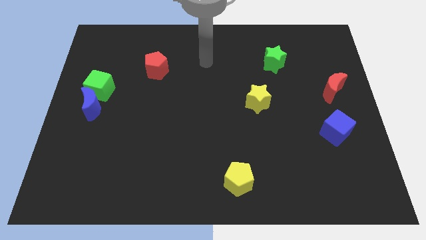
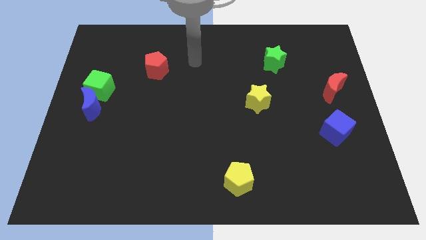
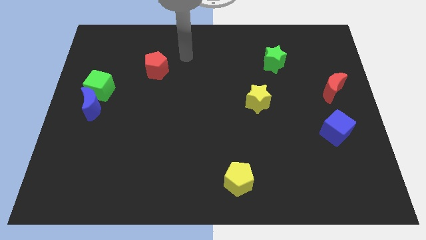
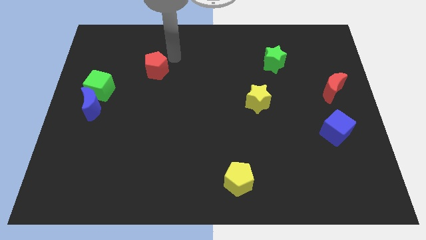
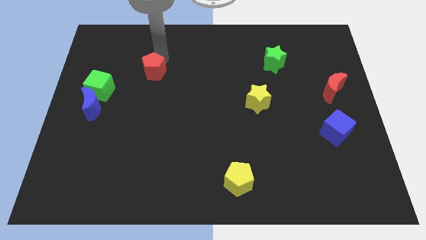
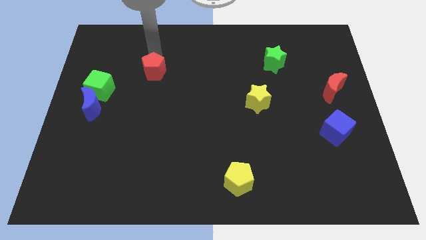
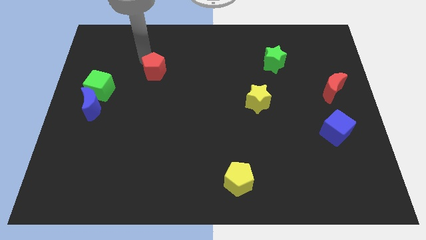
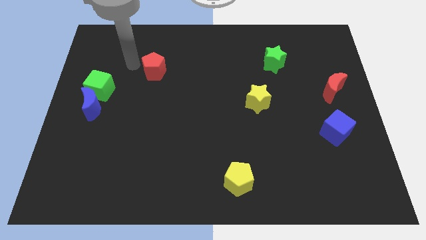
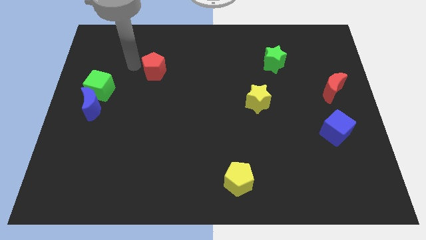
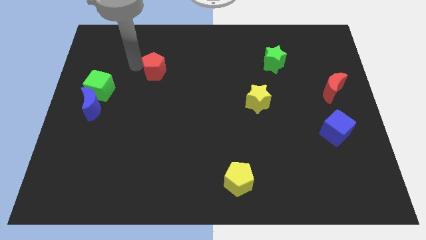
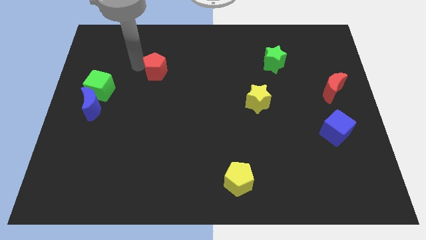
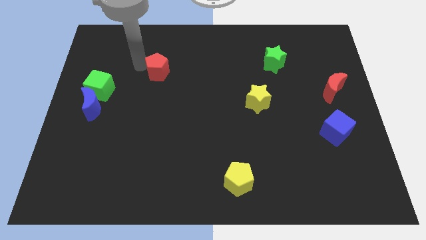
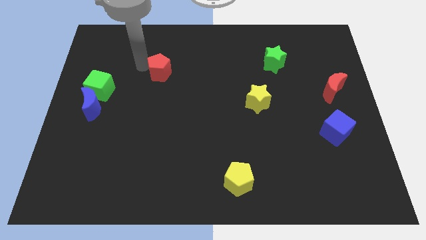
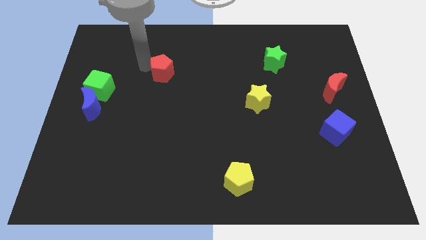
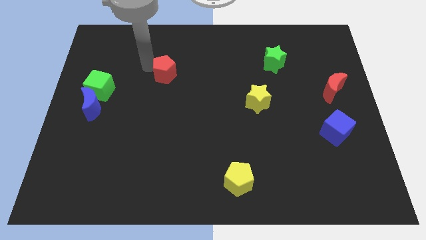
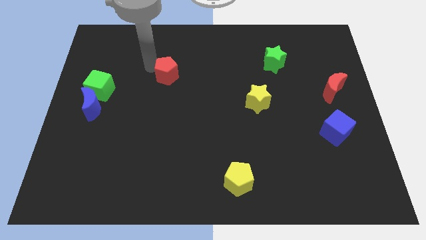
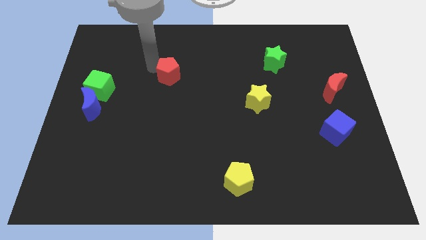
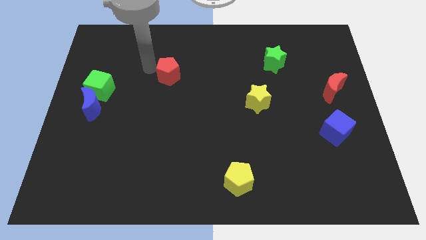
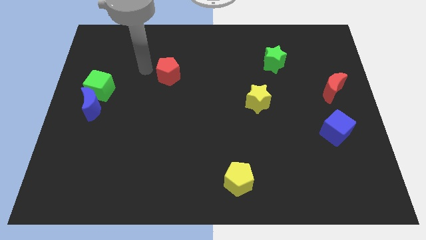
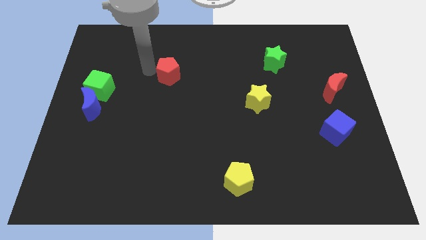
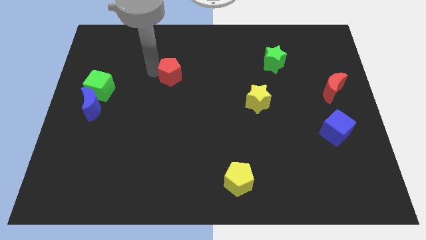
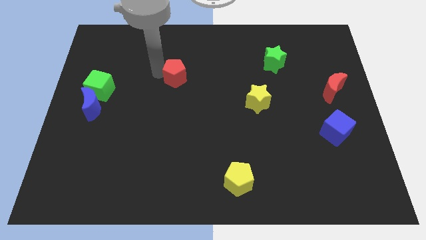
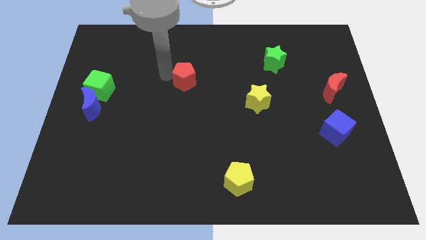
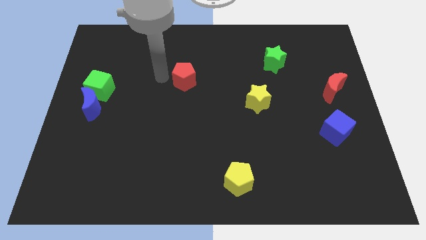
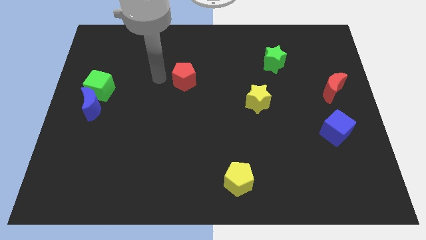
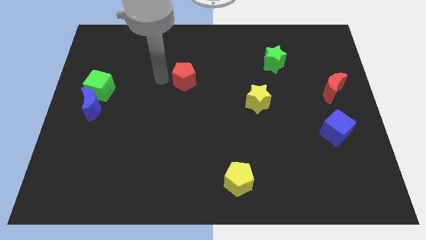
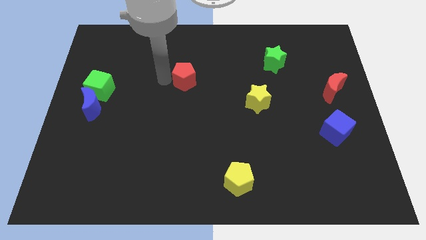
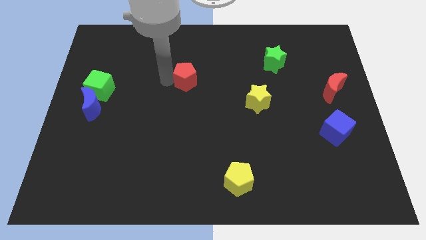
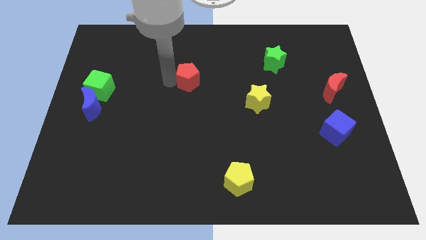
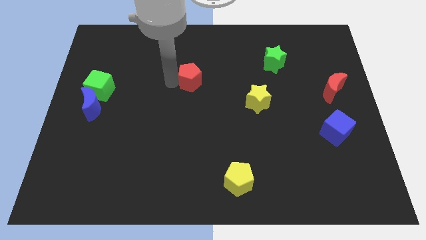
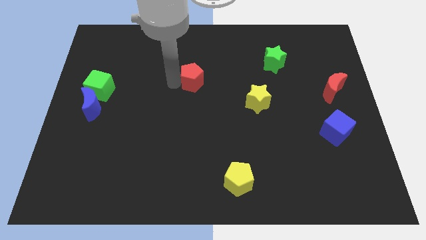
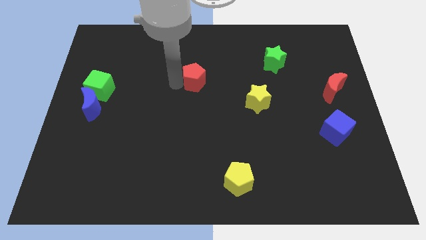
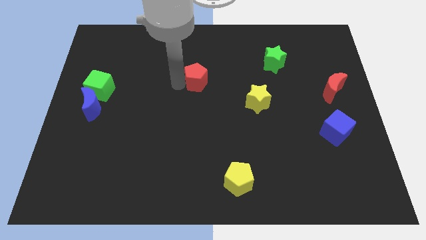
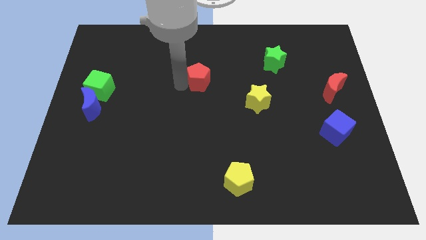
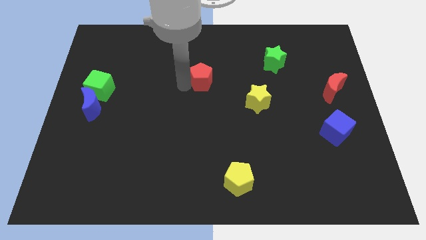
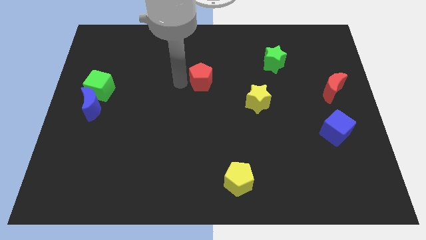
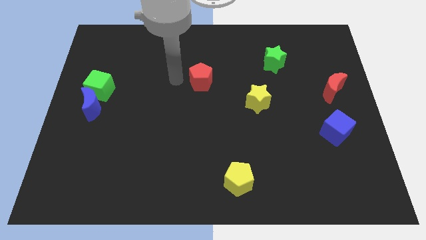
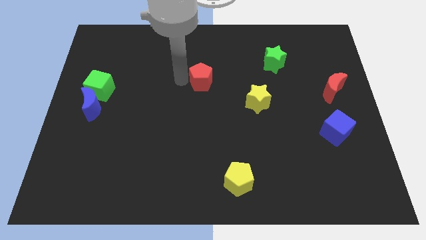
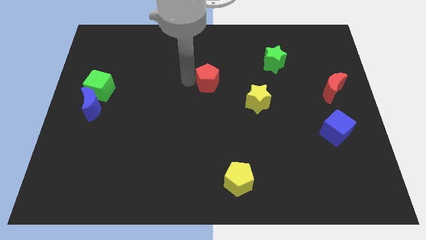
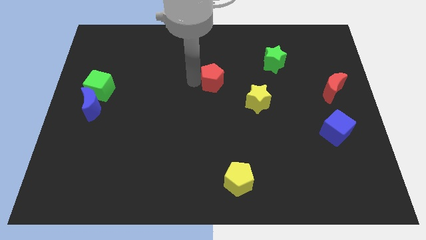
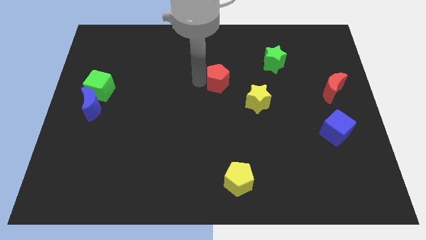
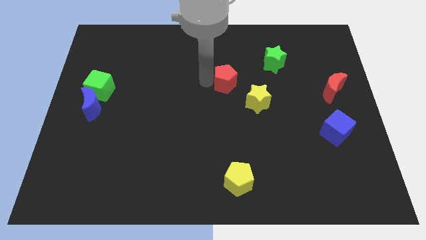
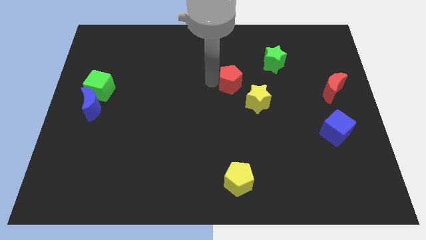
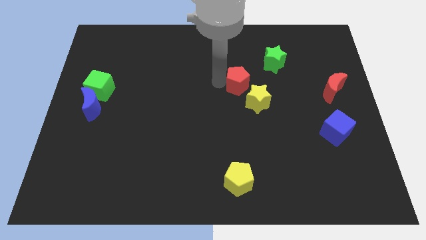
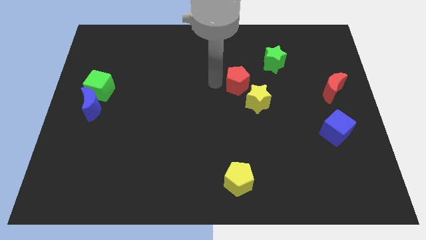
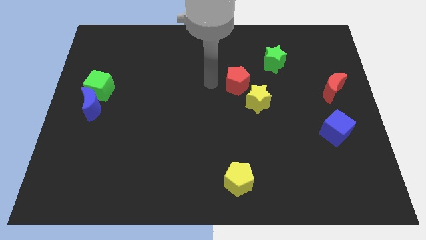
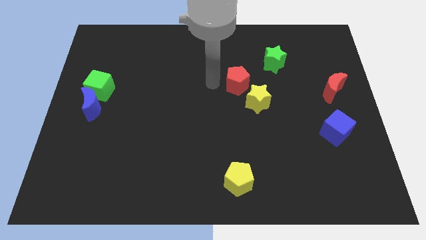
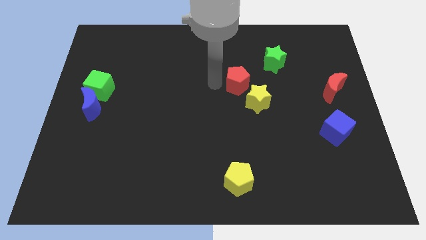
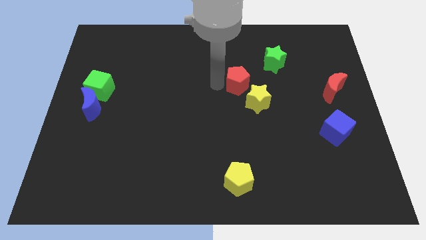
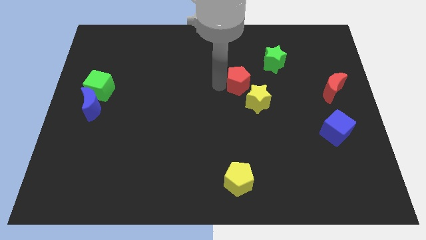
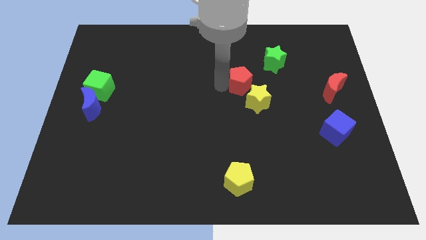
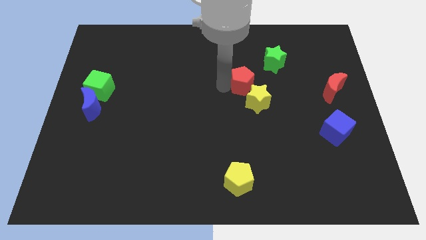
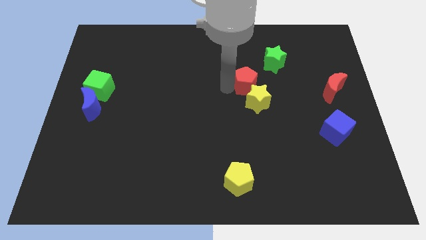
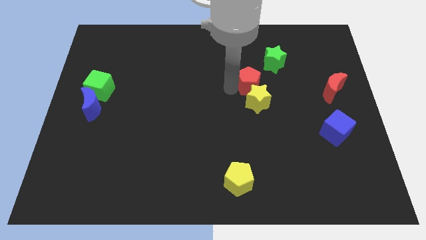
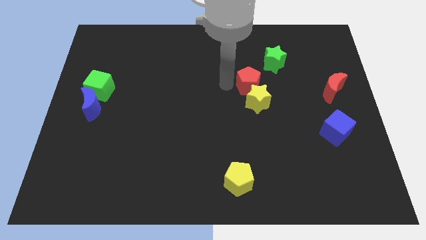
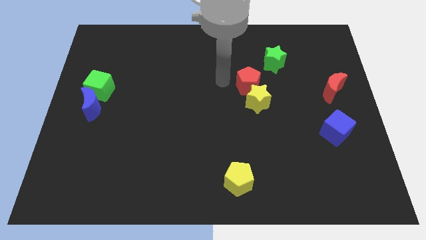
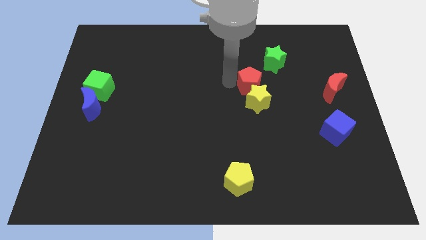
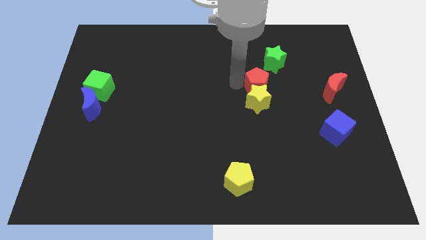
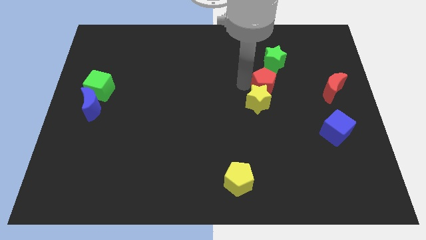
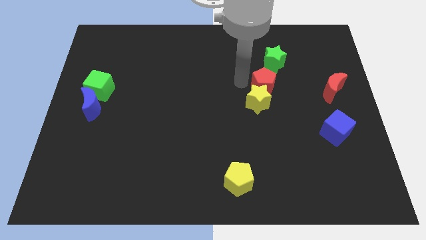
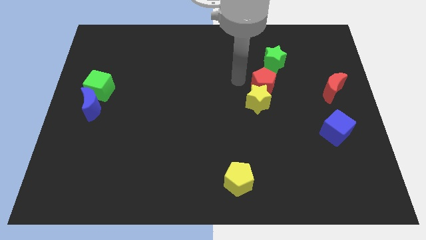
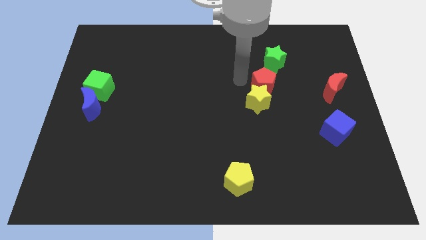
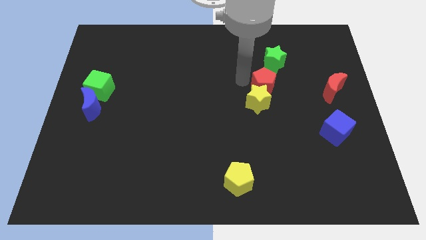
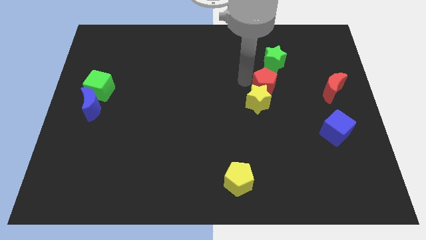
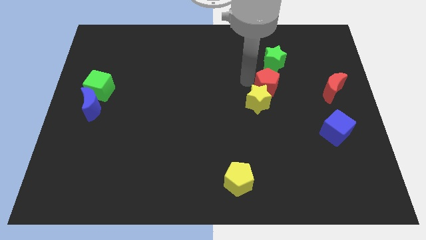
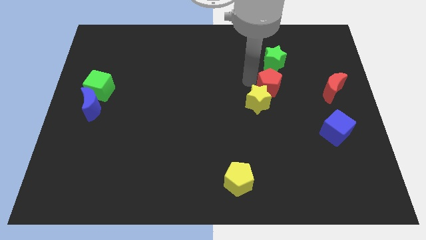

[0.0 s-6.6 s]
put the red pentagon to the right side of the yellow star
